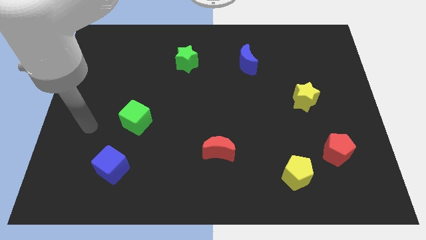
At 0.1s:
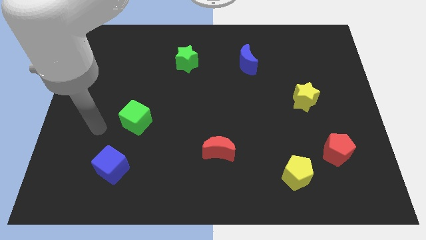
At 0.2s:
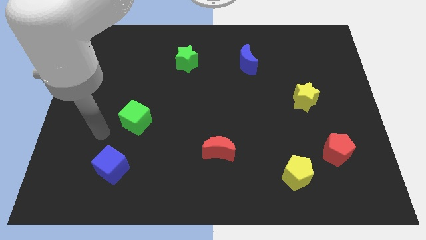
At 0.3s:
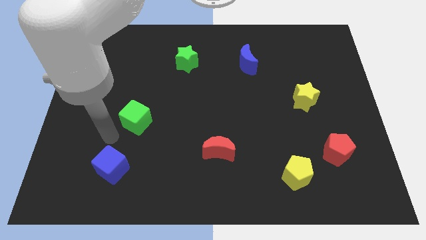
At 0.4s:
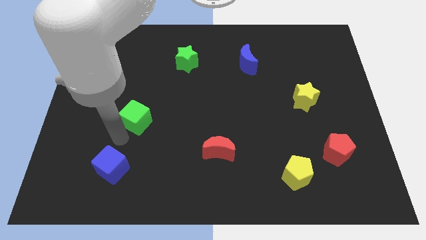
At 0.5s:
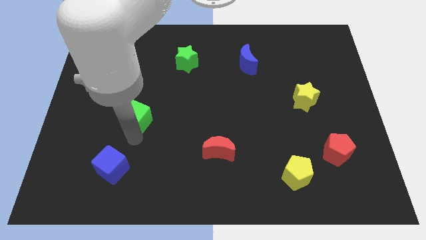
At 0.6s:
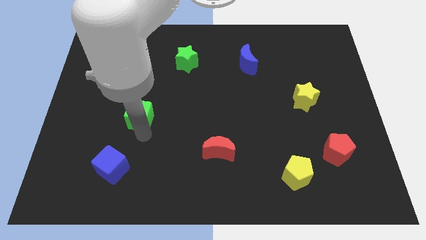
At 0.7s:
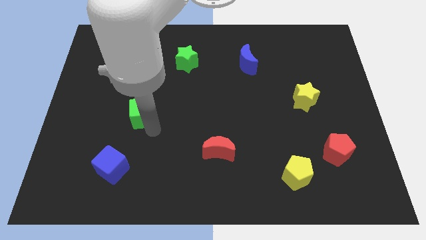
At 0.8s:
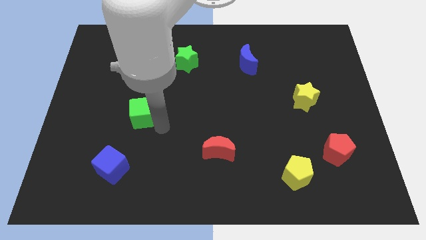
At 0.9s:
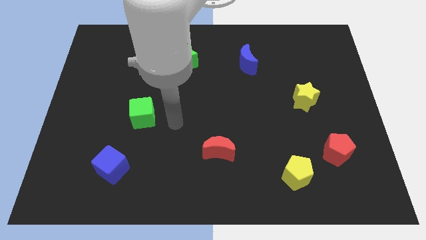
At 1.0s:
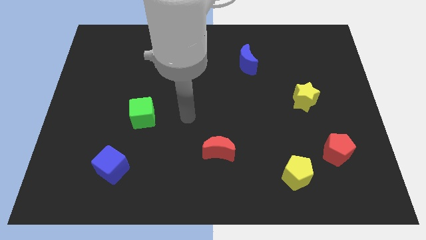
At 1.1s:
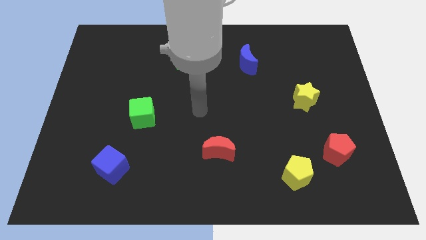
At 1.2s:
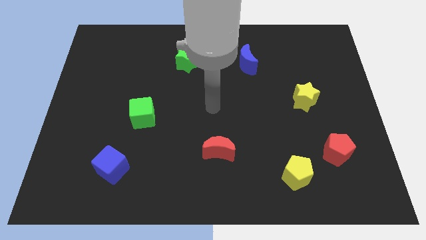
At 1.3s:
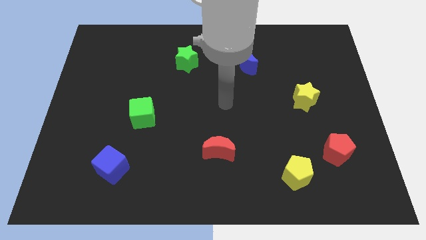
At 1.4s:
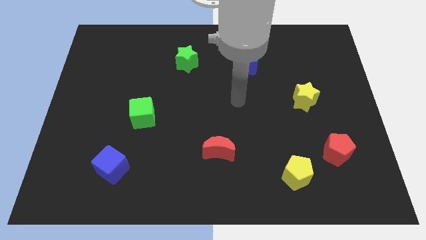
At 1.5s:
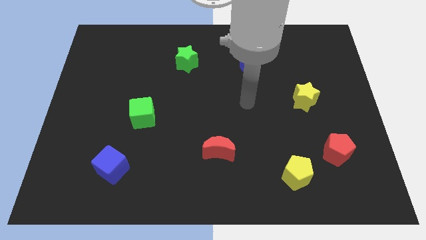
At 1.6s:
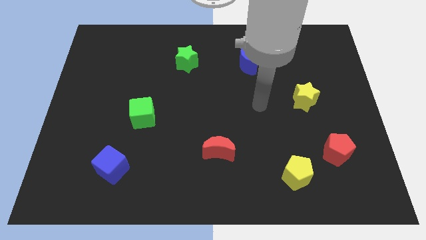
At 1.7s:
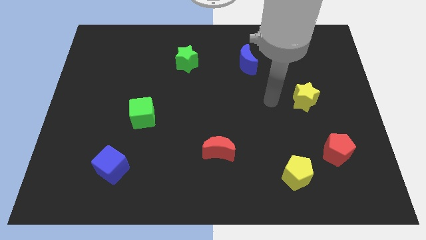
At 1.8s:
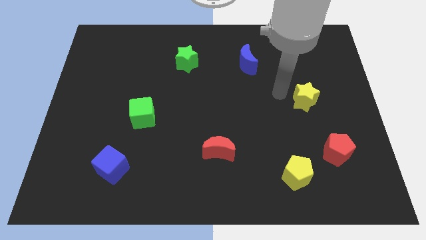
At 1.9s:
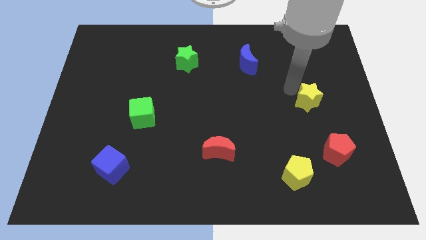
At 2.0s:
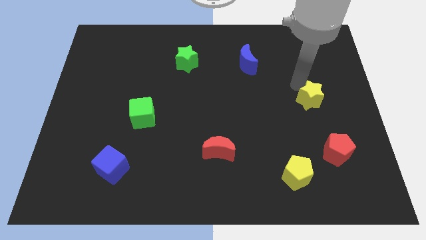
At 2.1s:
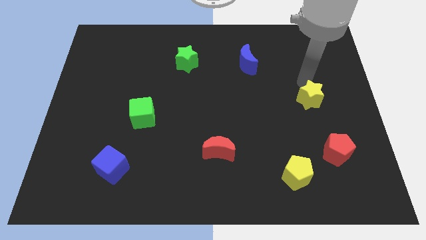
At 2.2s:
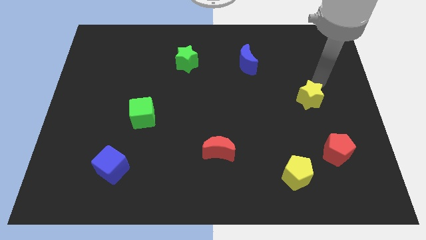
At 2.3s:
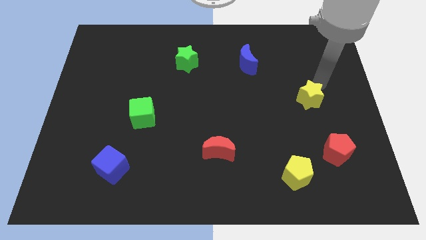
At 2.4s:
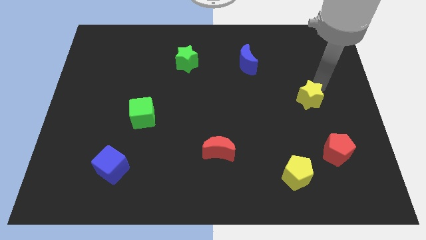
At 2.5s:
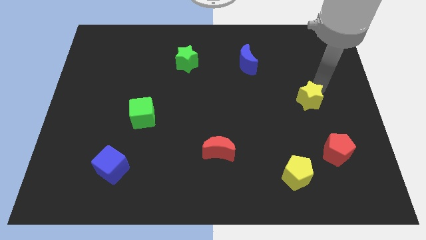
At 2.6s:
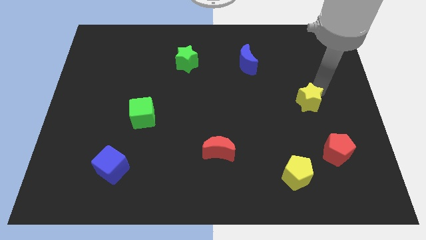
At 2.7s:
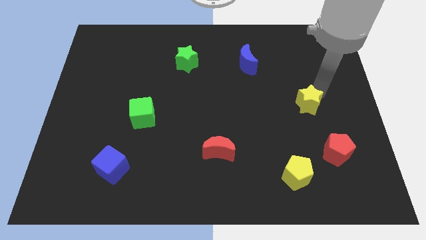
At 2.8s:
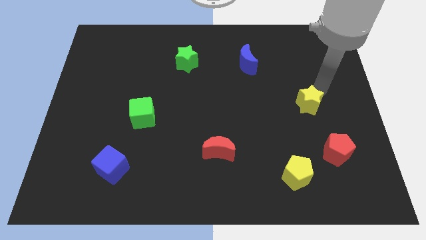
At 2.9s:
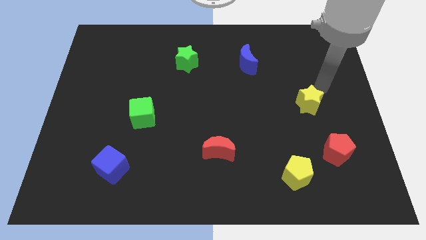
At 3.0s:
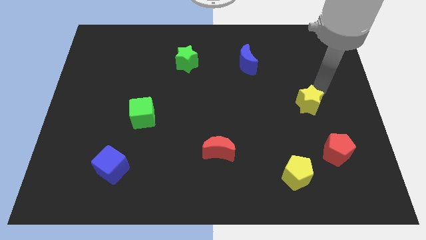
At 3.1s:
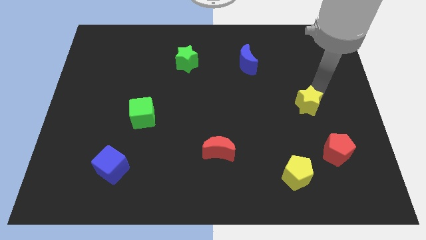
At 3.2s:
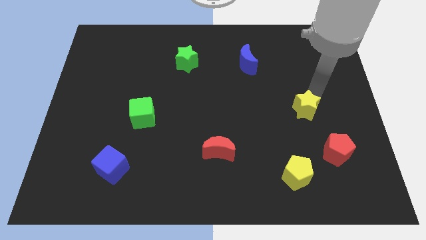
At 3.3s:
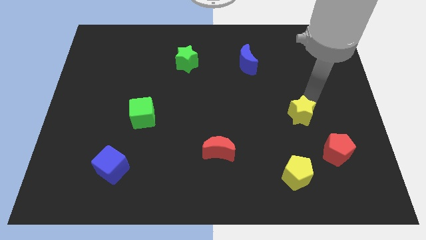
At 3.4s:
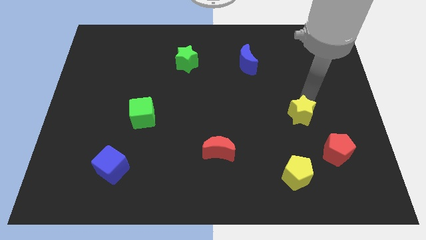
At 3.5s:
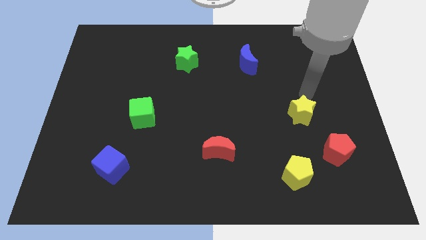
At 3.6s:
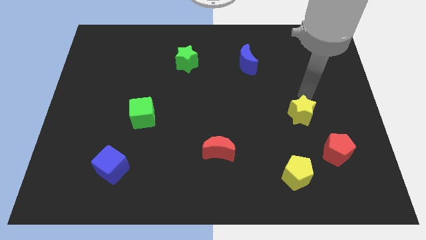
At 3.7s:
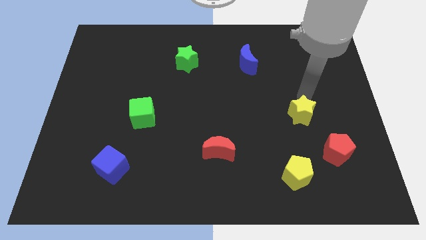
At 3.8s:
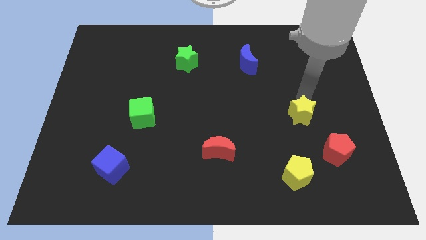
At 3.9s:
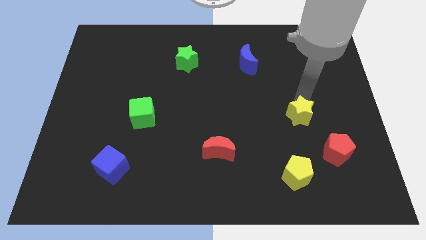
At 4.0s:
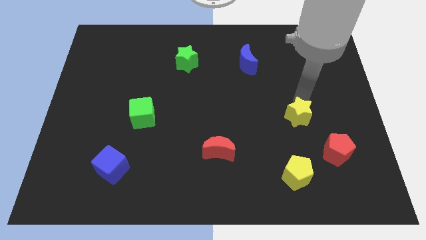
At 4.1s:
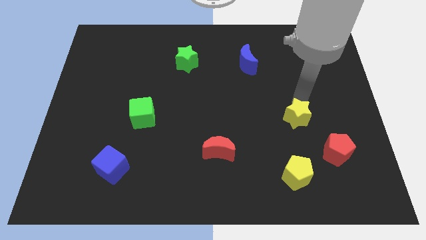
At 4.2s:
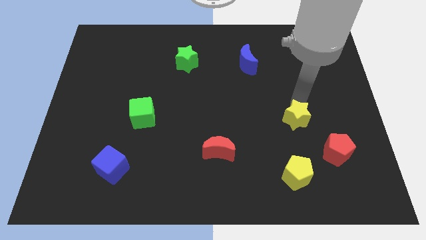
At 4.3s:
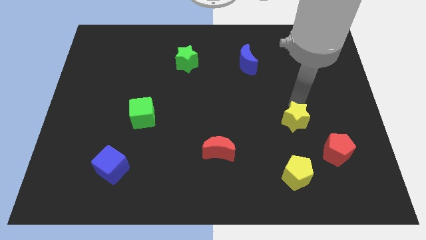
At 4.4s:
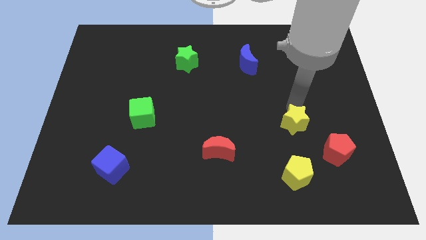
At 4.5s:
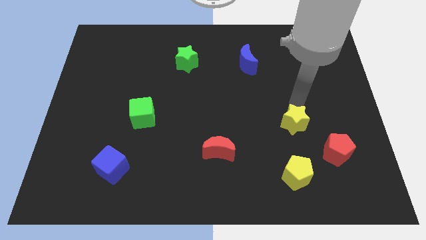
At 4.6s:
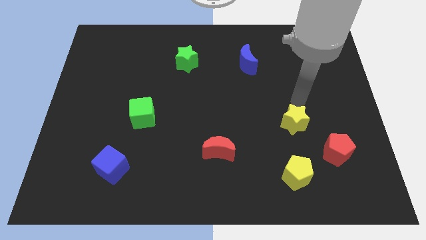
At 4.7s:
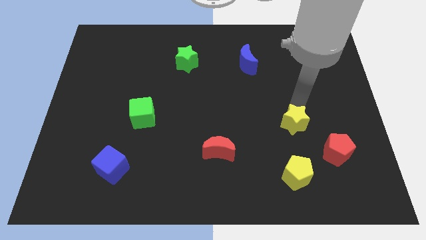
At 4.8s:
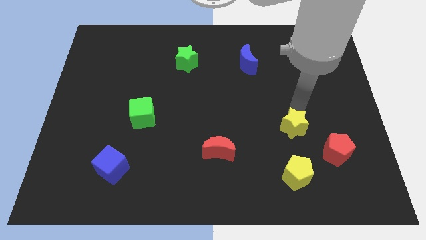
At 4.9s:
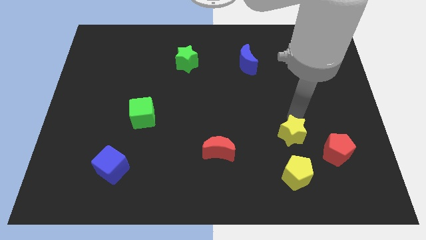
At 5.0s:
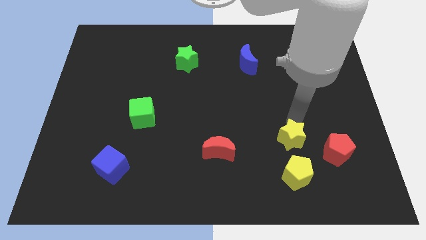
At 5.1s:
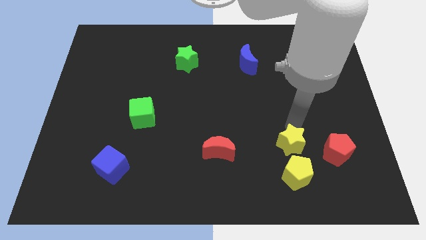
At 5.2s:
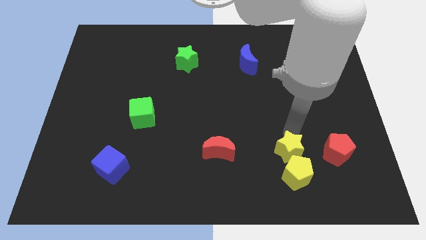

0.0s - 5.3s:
put the yellow star to the yellow pentagon

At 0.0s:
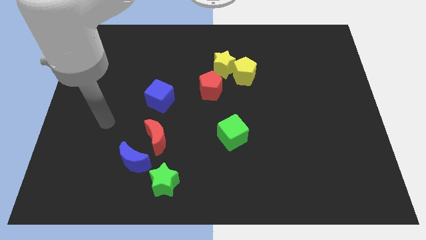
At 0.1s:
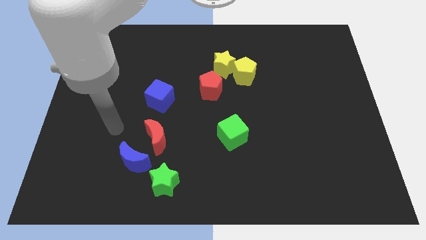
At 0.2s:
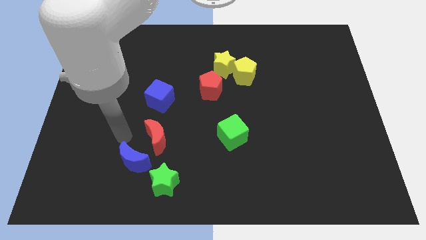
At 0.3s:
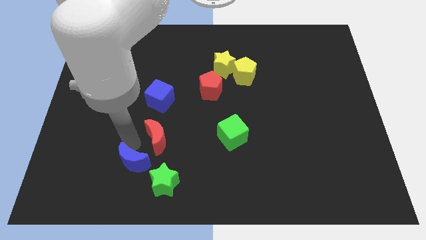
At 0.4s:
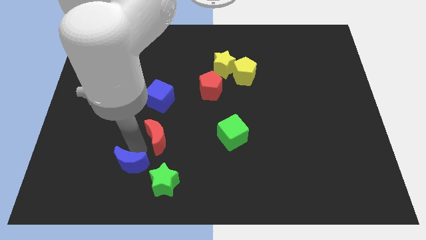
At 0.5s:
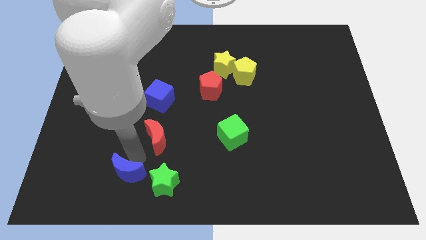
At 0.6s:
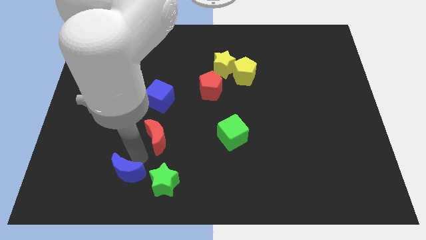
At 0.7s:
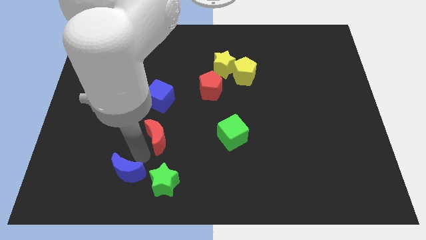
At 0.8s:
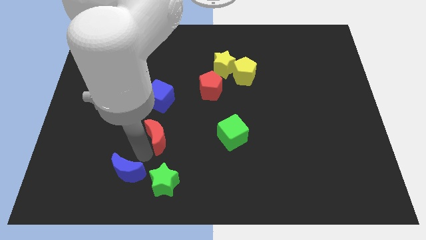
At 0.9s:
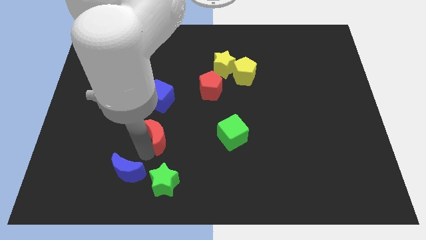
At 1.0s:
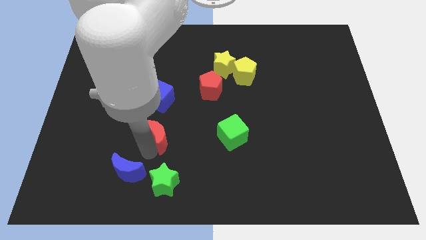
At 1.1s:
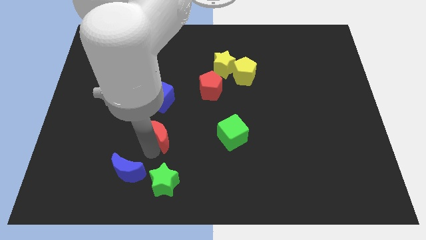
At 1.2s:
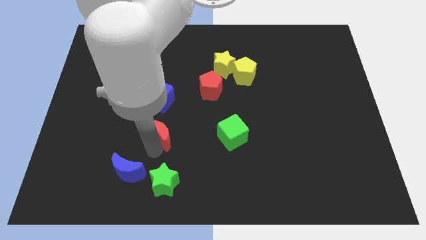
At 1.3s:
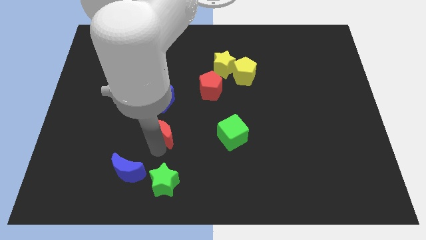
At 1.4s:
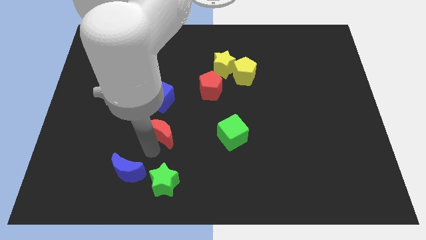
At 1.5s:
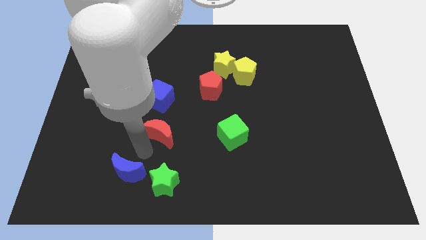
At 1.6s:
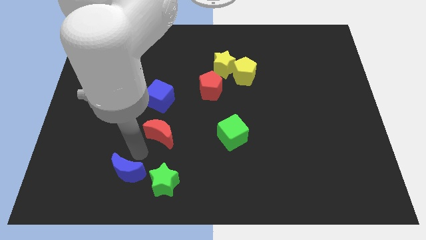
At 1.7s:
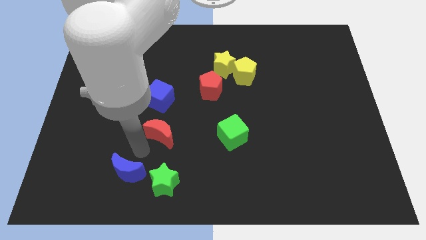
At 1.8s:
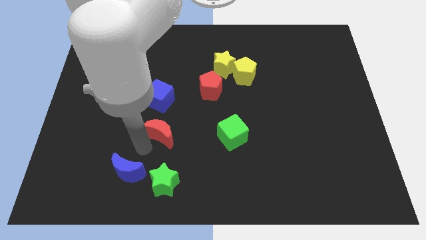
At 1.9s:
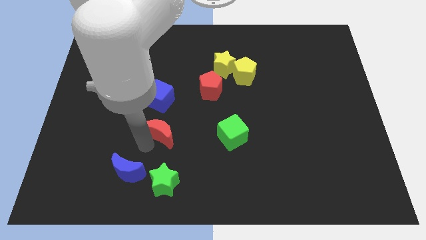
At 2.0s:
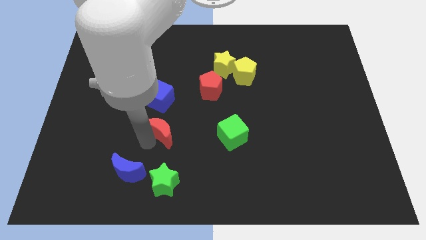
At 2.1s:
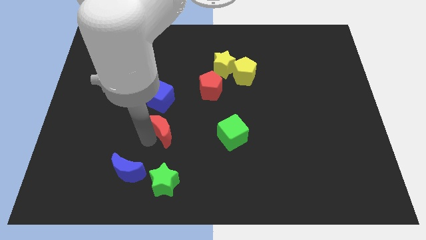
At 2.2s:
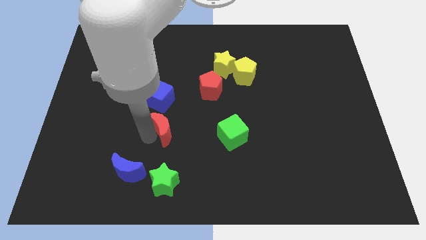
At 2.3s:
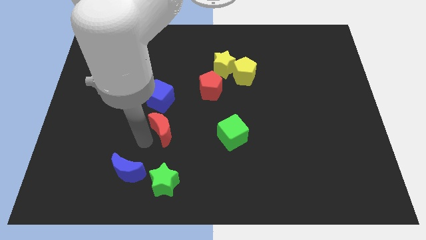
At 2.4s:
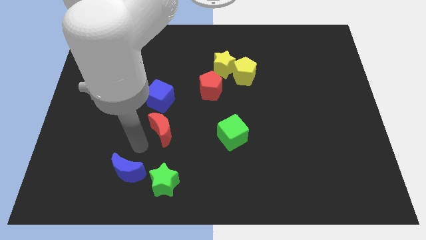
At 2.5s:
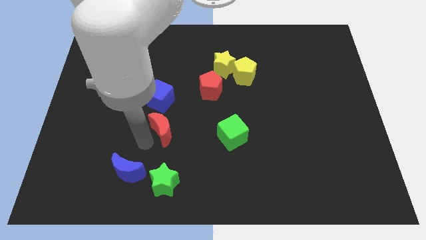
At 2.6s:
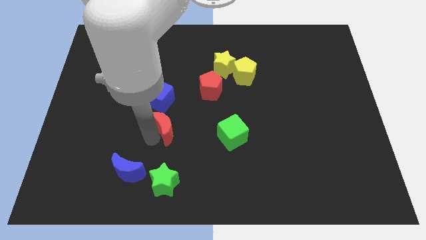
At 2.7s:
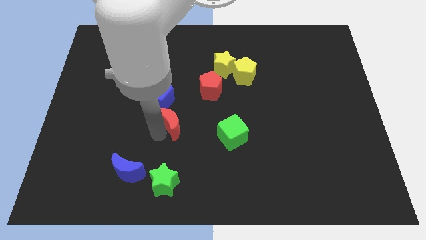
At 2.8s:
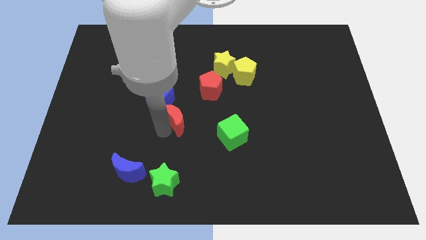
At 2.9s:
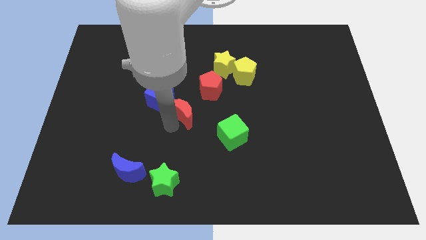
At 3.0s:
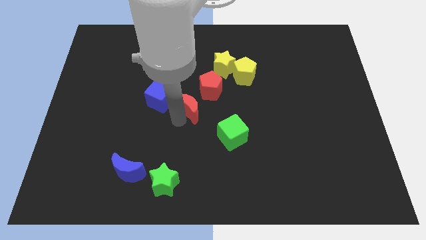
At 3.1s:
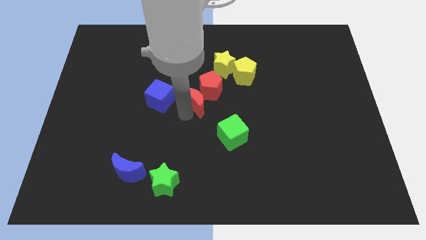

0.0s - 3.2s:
move the red moon close to the red pentagon
